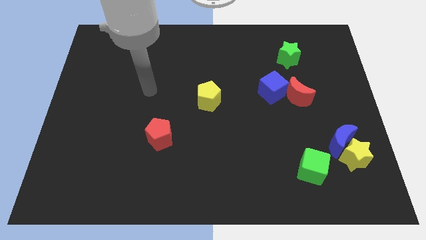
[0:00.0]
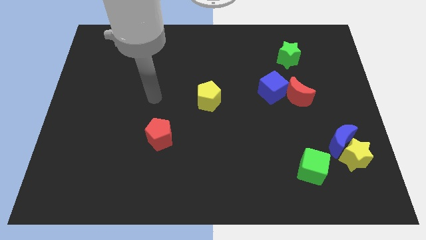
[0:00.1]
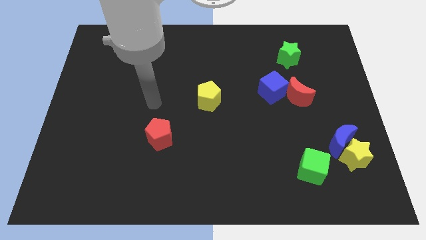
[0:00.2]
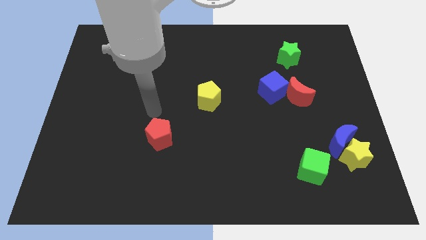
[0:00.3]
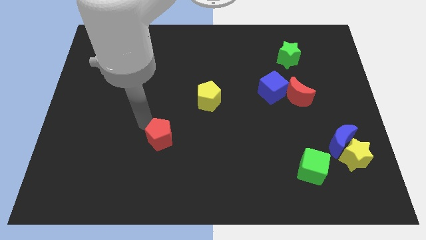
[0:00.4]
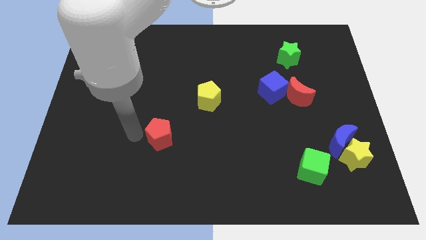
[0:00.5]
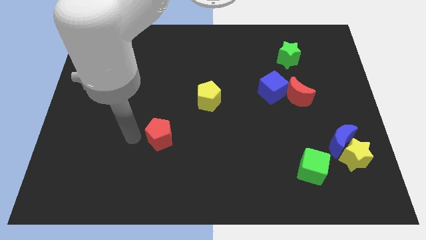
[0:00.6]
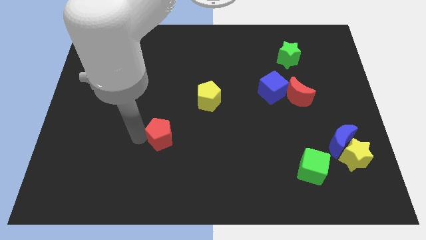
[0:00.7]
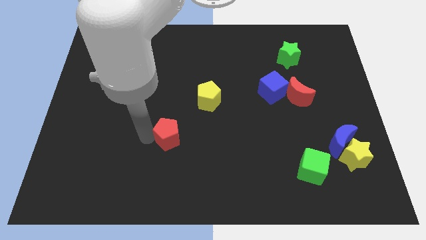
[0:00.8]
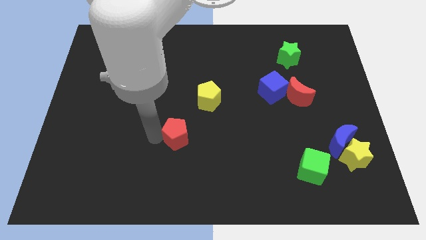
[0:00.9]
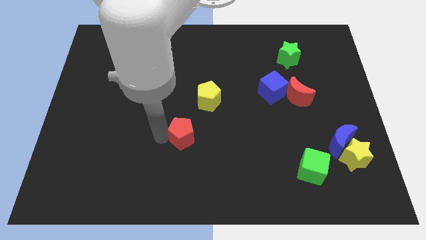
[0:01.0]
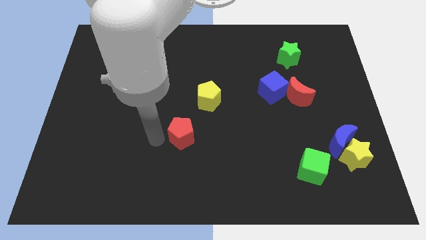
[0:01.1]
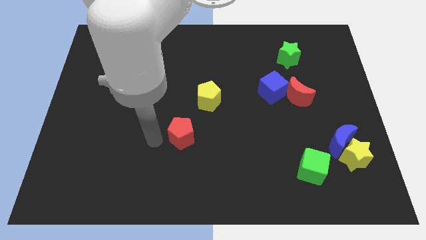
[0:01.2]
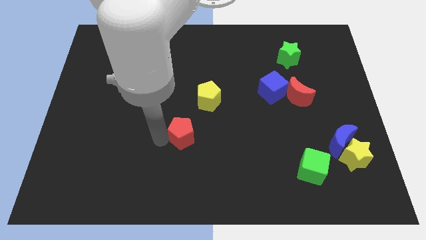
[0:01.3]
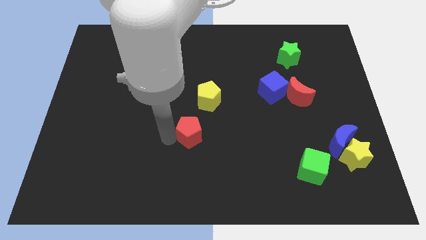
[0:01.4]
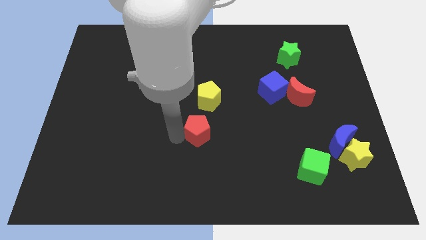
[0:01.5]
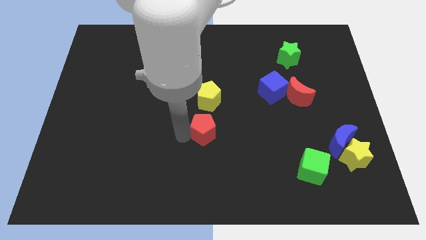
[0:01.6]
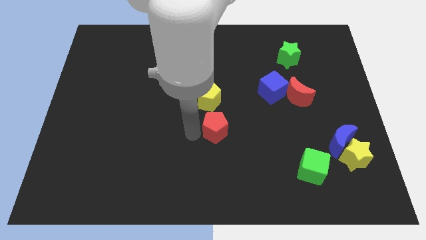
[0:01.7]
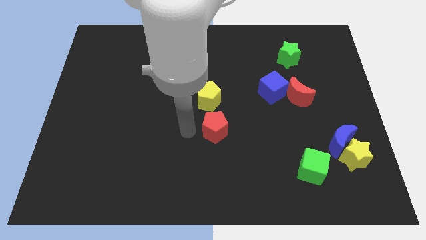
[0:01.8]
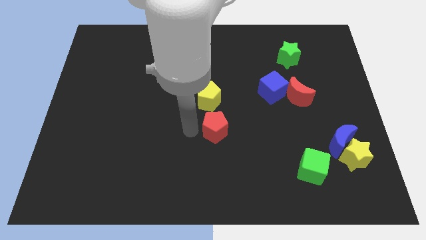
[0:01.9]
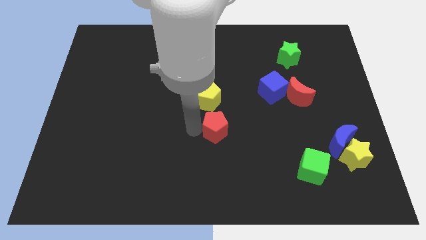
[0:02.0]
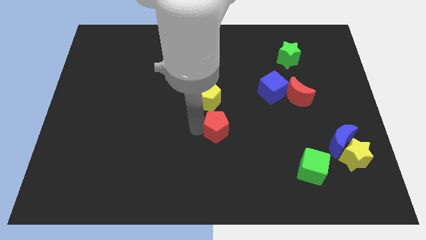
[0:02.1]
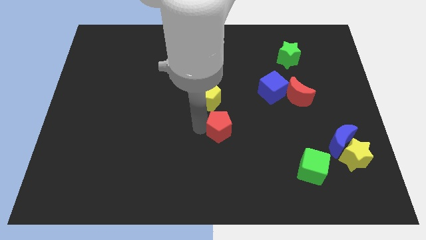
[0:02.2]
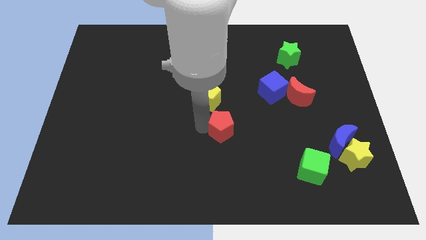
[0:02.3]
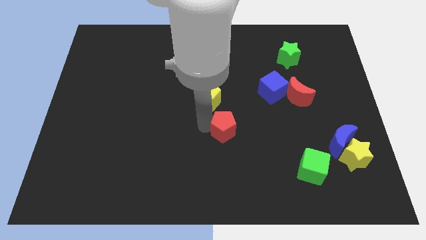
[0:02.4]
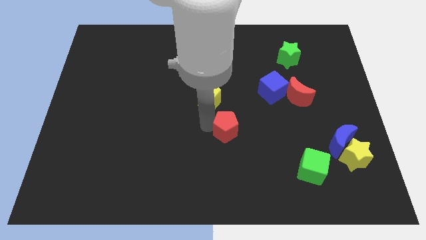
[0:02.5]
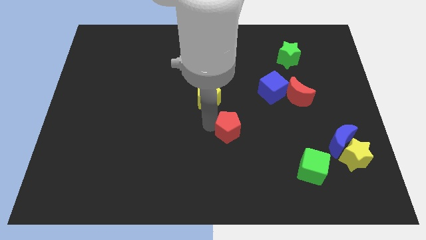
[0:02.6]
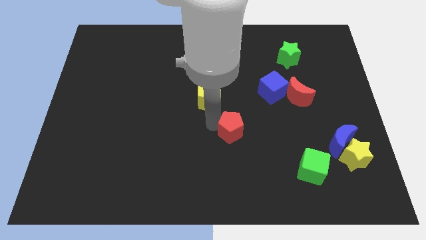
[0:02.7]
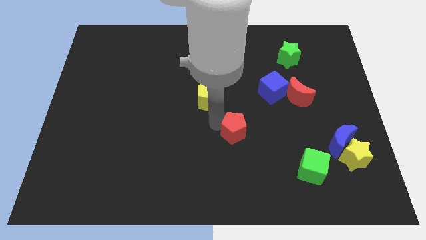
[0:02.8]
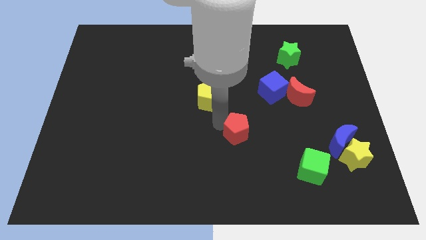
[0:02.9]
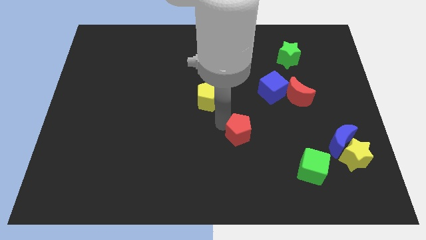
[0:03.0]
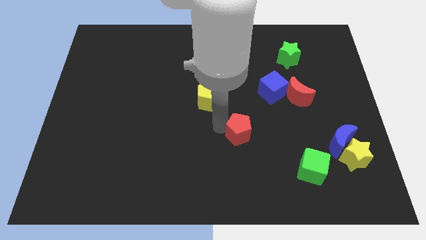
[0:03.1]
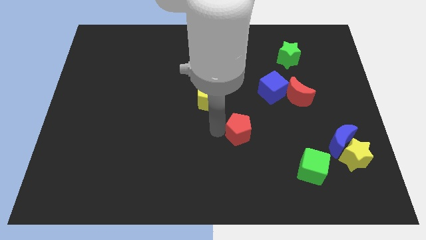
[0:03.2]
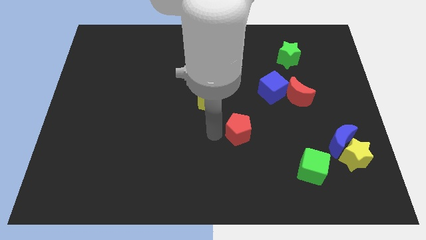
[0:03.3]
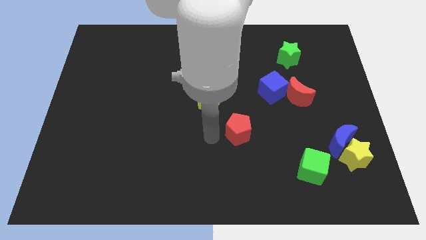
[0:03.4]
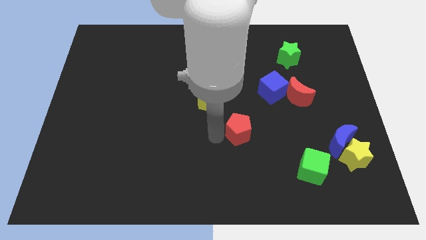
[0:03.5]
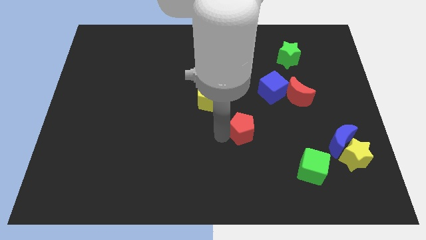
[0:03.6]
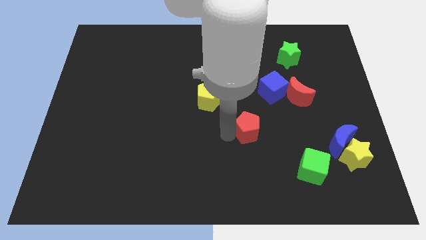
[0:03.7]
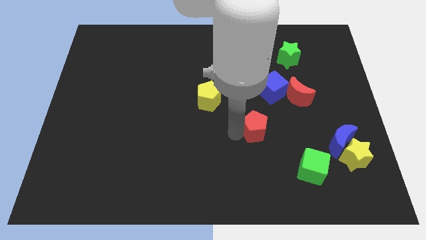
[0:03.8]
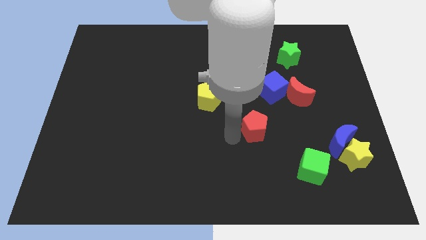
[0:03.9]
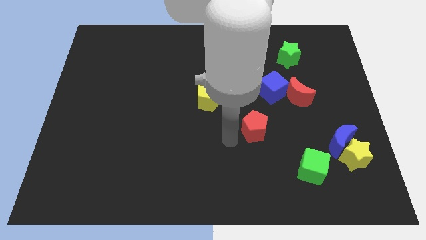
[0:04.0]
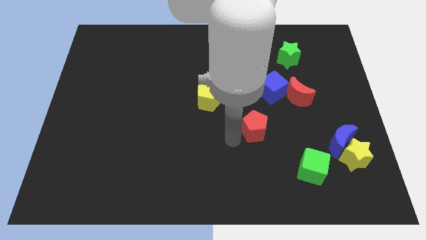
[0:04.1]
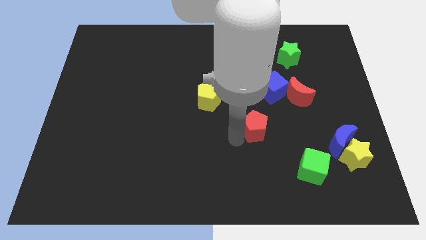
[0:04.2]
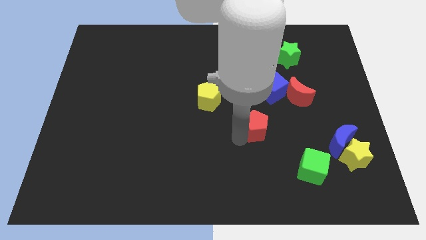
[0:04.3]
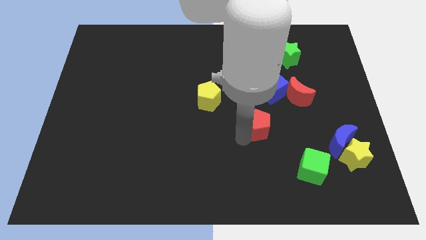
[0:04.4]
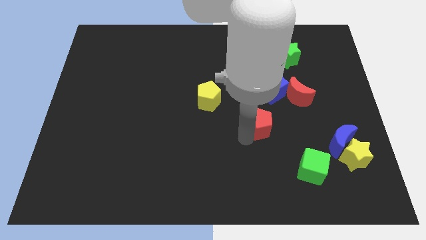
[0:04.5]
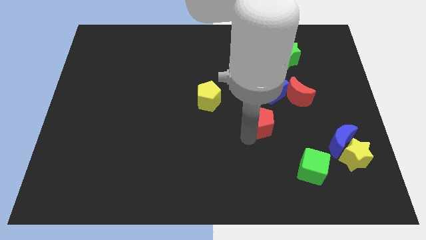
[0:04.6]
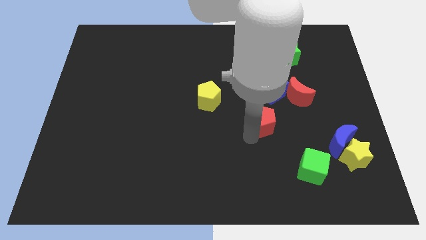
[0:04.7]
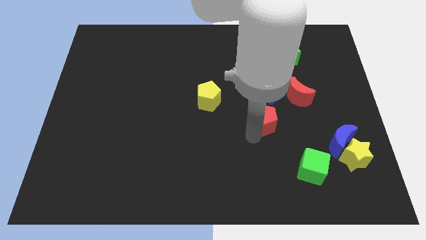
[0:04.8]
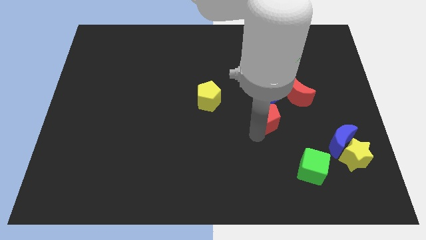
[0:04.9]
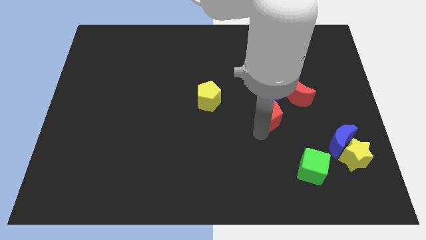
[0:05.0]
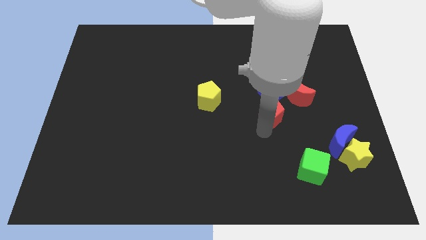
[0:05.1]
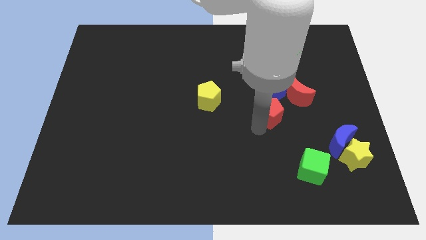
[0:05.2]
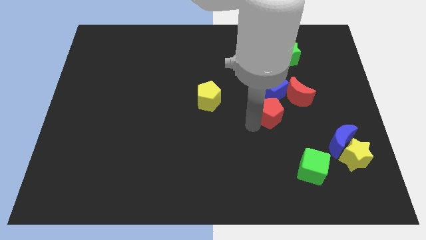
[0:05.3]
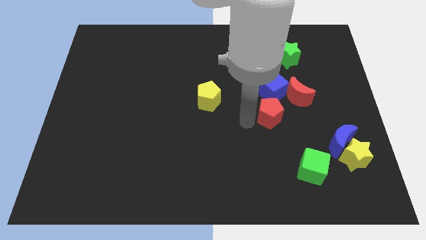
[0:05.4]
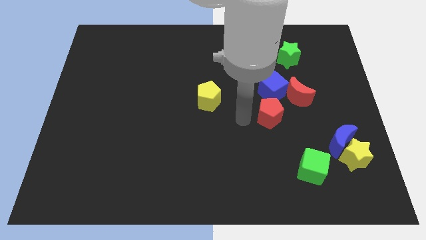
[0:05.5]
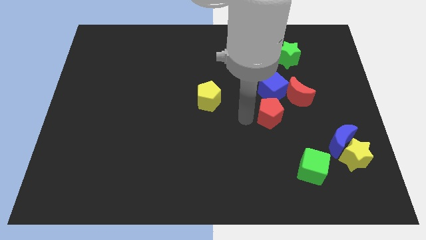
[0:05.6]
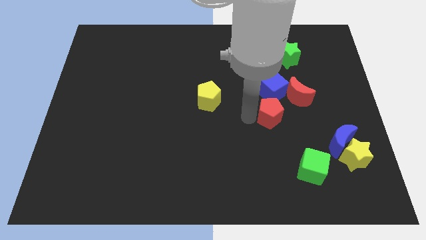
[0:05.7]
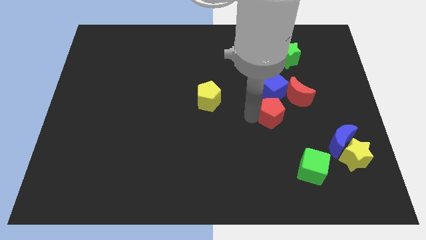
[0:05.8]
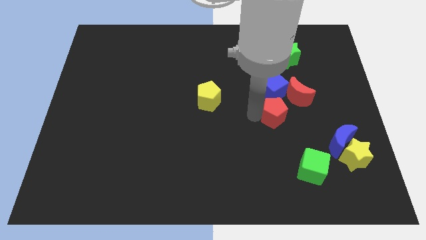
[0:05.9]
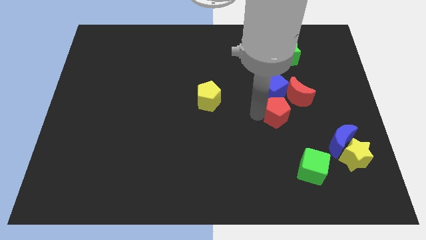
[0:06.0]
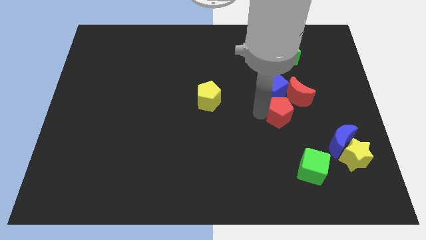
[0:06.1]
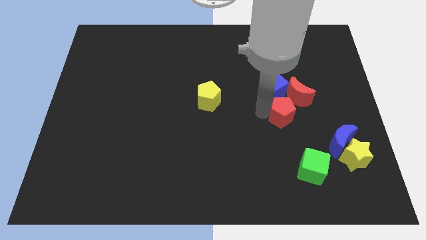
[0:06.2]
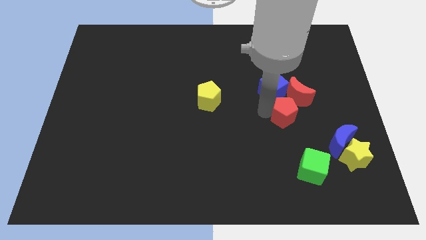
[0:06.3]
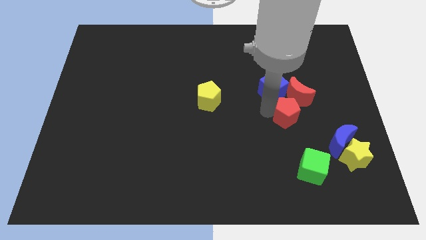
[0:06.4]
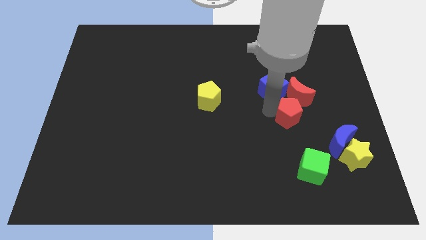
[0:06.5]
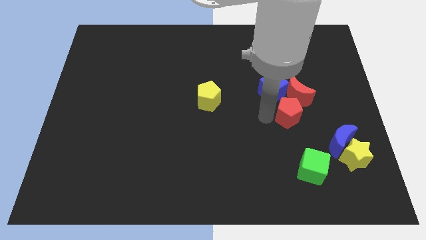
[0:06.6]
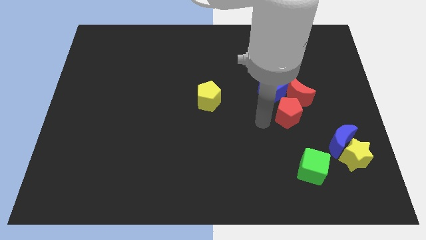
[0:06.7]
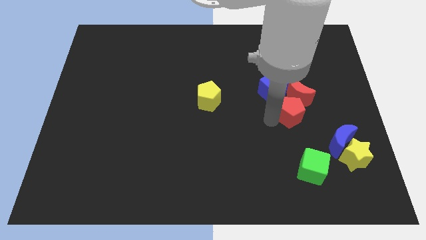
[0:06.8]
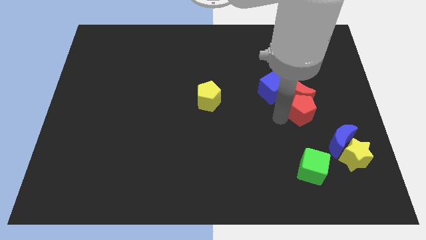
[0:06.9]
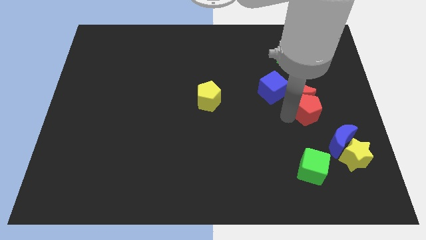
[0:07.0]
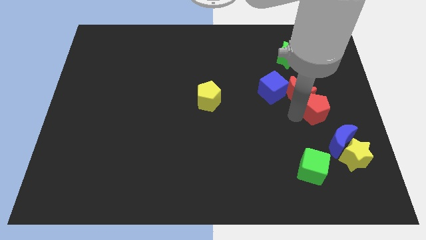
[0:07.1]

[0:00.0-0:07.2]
push the red pentagon to the top of the blue moon
